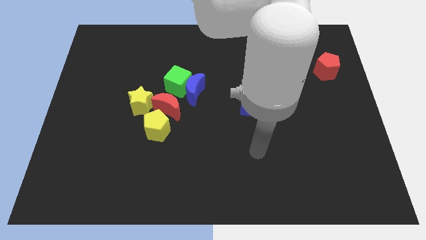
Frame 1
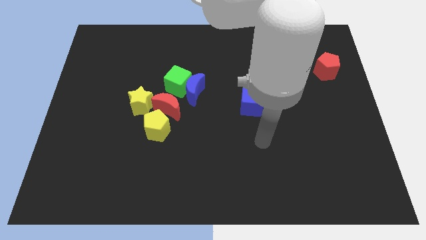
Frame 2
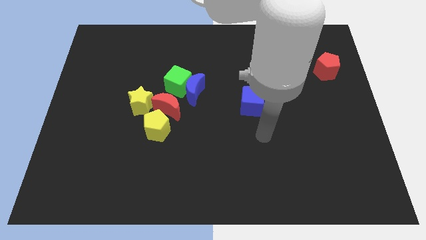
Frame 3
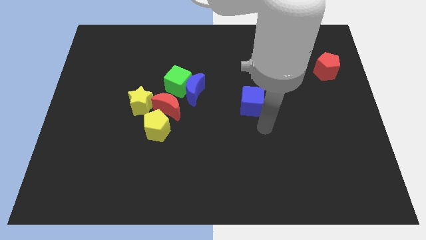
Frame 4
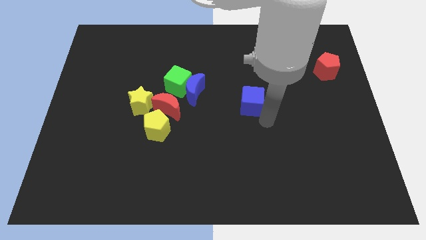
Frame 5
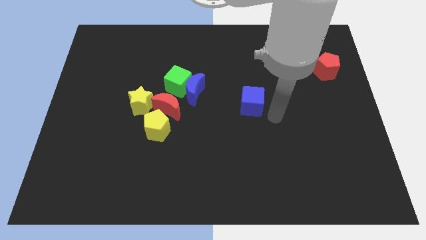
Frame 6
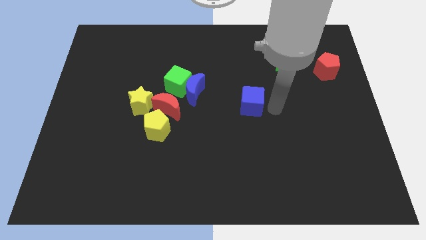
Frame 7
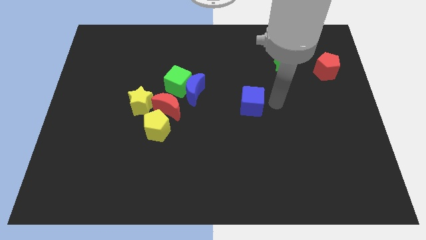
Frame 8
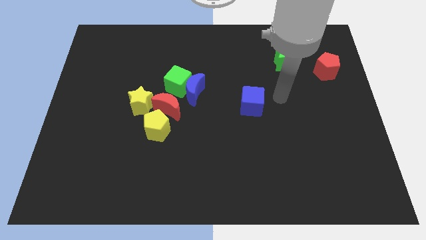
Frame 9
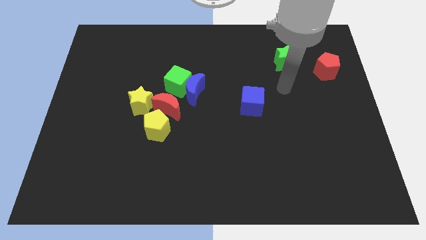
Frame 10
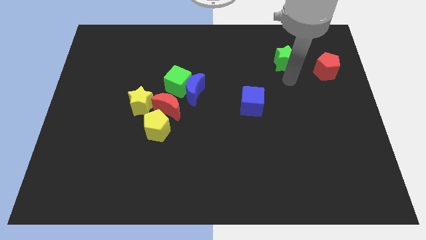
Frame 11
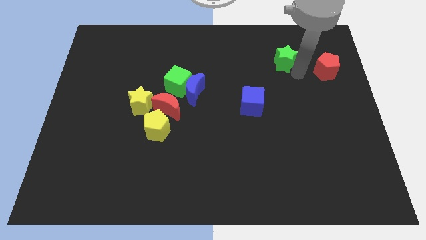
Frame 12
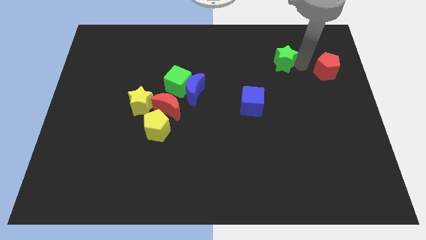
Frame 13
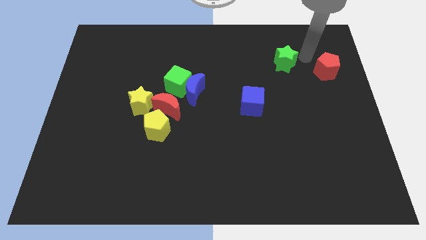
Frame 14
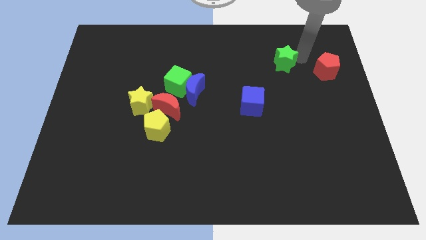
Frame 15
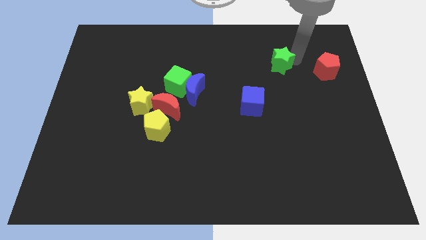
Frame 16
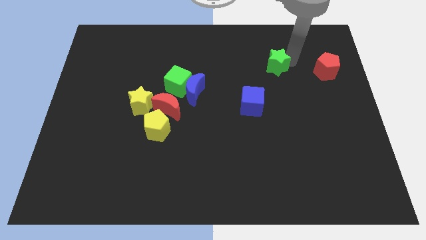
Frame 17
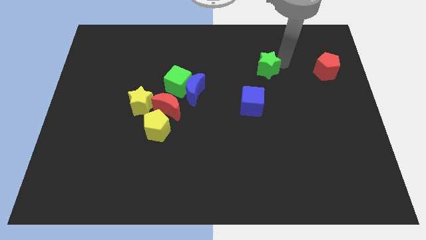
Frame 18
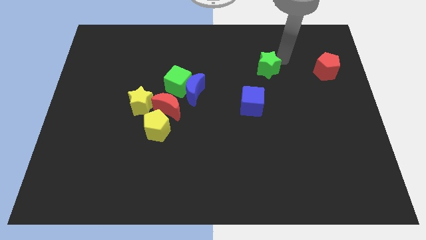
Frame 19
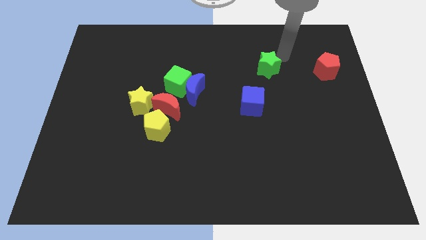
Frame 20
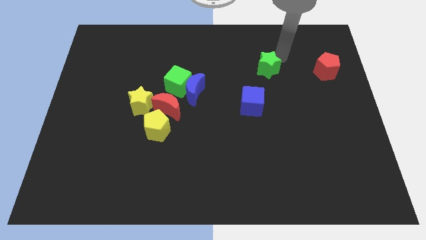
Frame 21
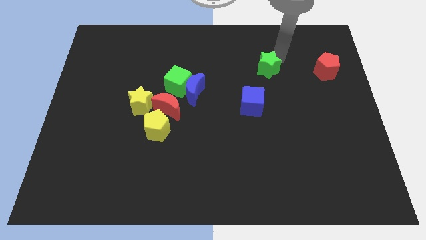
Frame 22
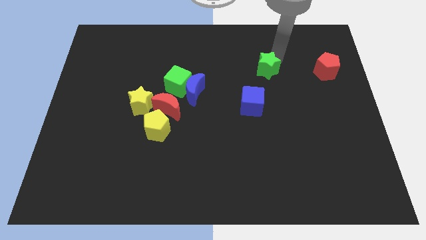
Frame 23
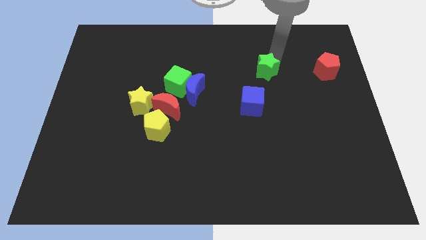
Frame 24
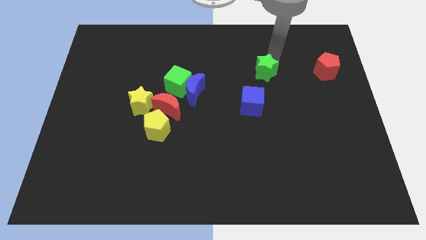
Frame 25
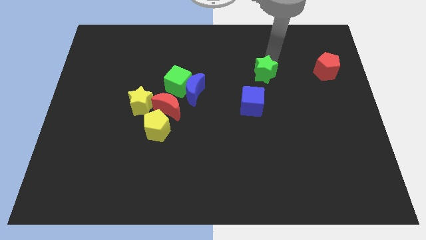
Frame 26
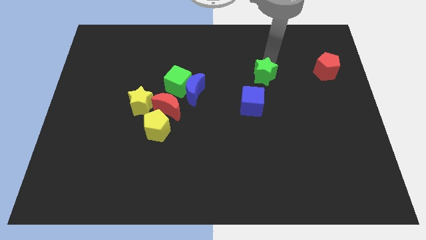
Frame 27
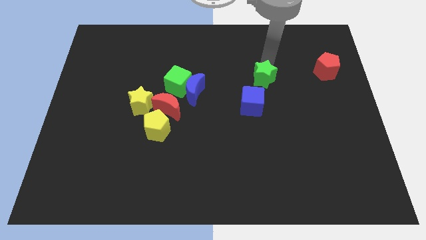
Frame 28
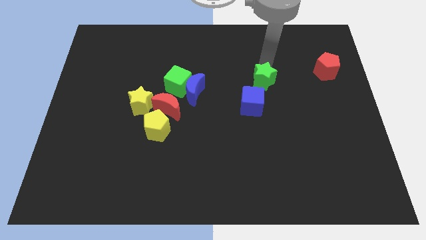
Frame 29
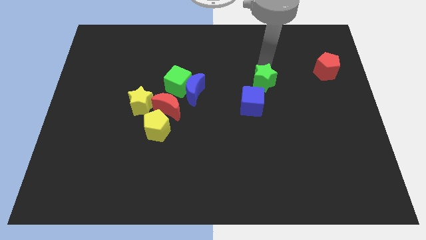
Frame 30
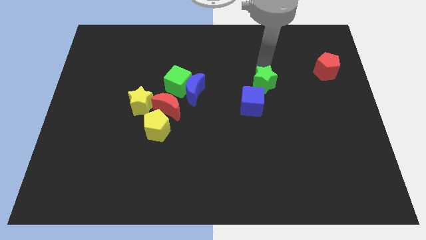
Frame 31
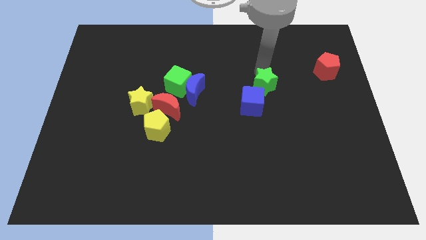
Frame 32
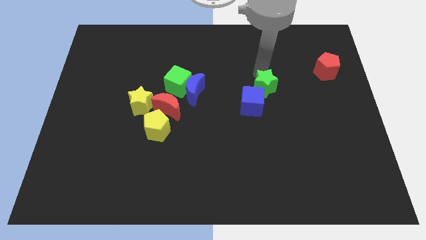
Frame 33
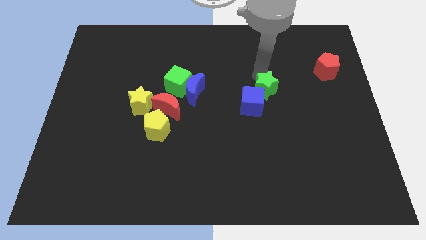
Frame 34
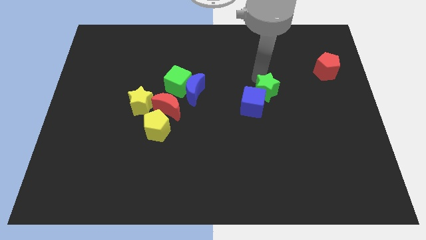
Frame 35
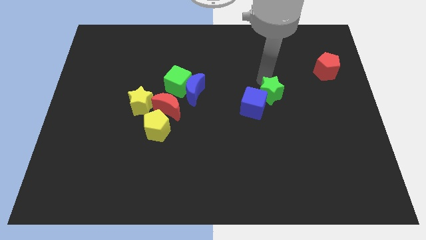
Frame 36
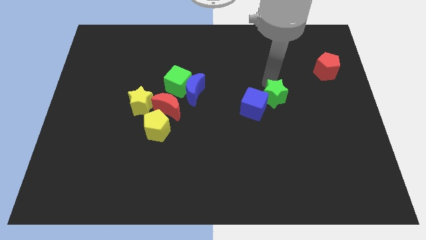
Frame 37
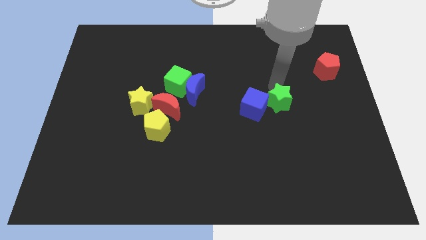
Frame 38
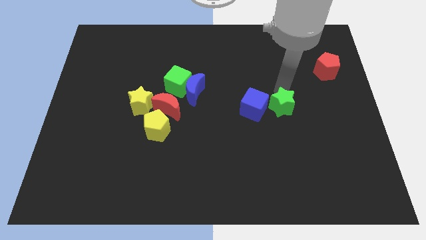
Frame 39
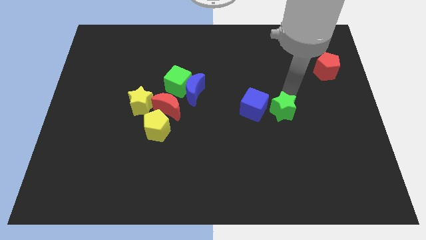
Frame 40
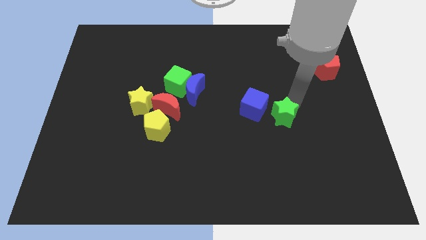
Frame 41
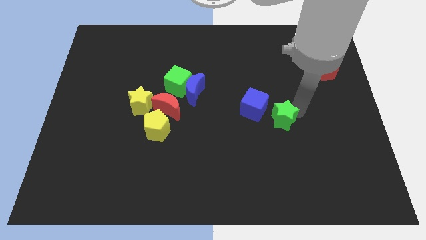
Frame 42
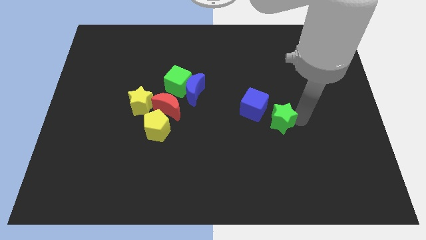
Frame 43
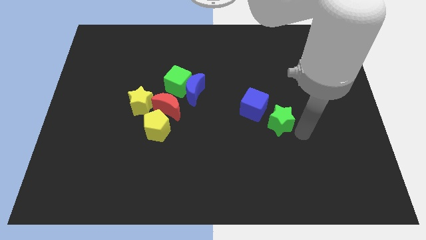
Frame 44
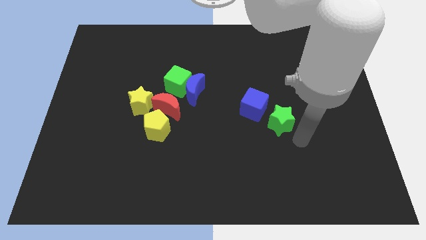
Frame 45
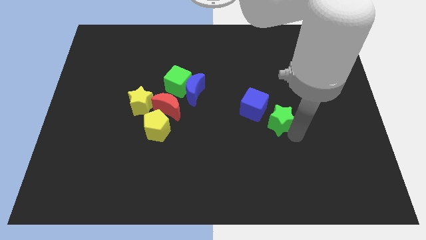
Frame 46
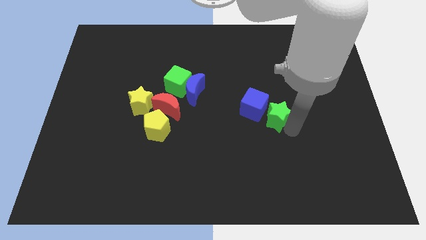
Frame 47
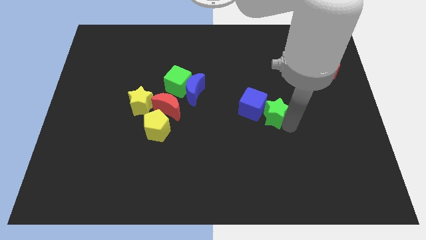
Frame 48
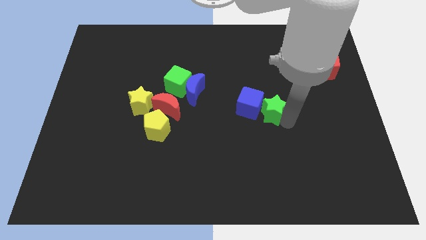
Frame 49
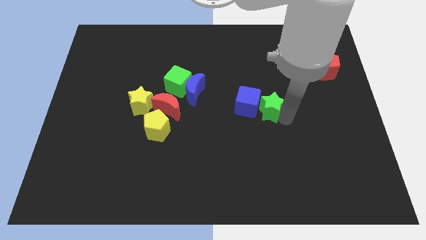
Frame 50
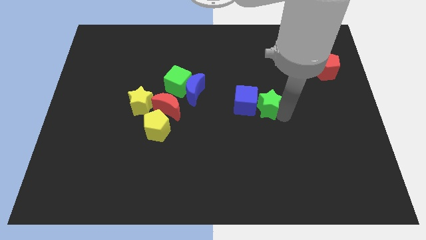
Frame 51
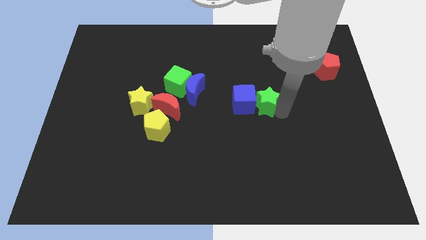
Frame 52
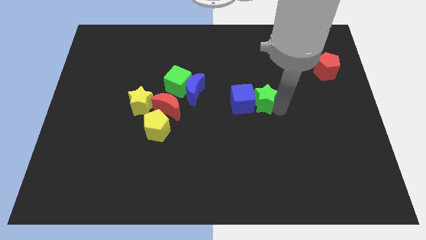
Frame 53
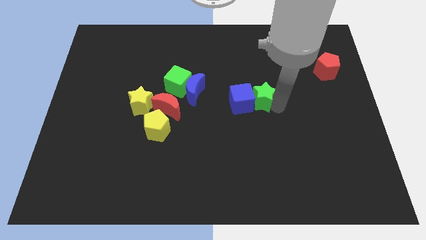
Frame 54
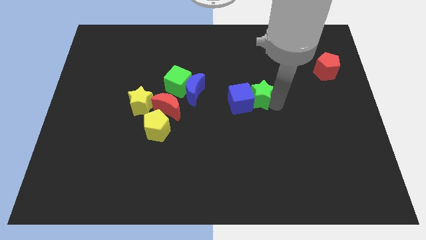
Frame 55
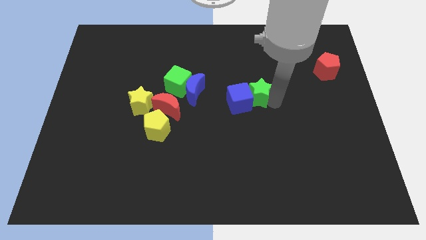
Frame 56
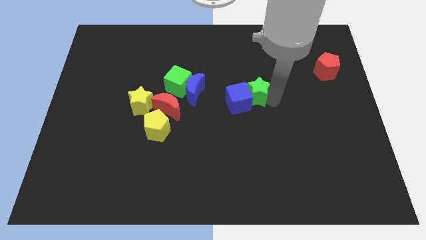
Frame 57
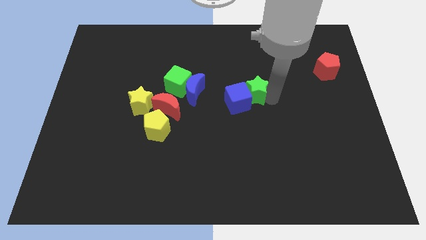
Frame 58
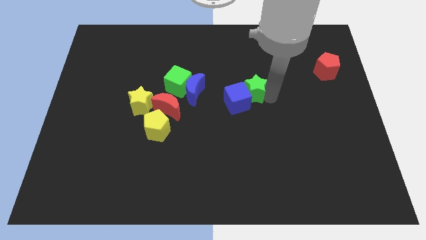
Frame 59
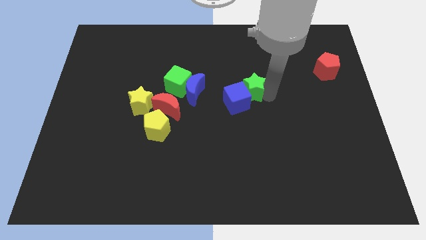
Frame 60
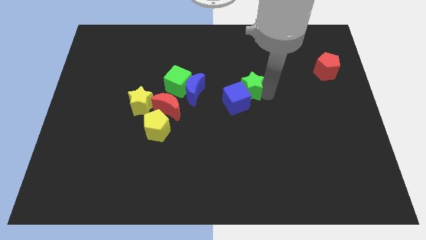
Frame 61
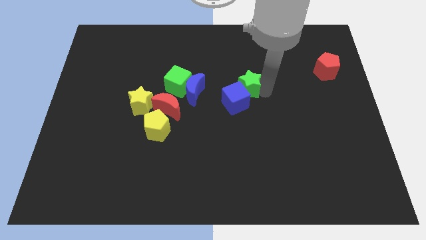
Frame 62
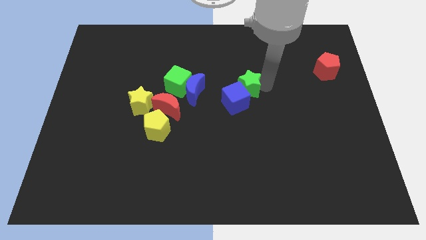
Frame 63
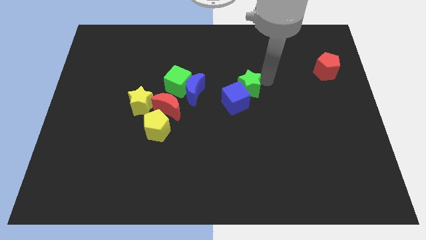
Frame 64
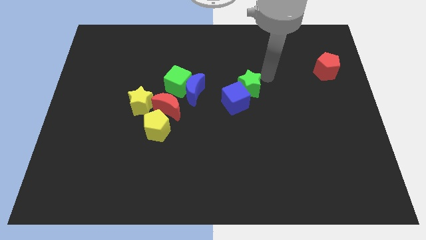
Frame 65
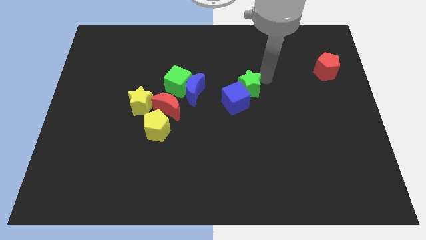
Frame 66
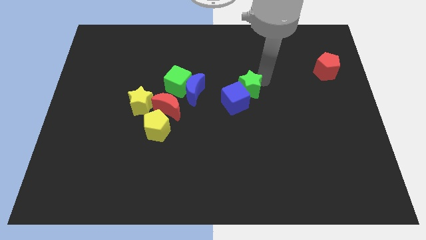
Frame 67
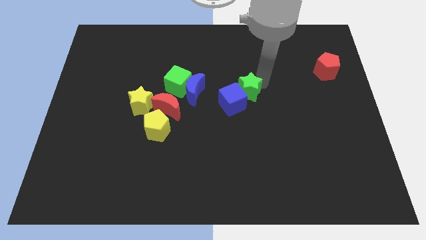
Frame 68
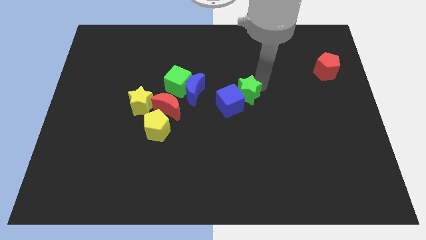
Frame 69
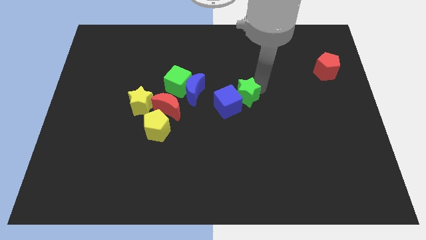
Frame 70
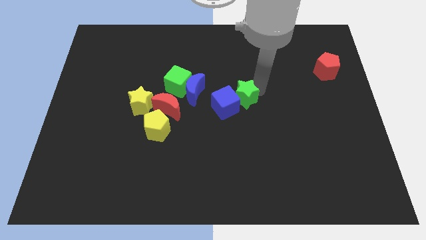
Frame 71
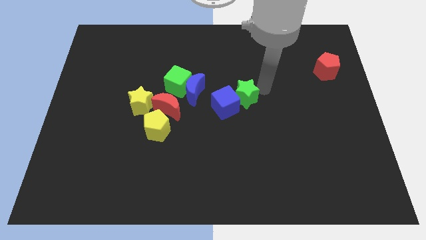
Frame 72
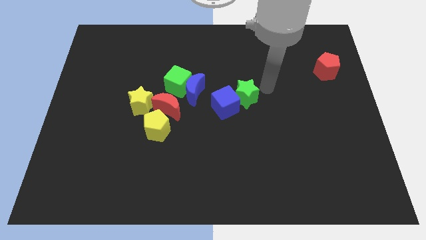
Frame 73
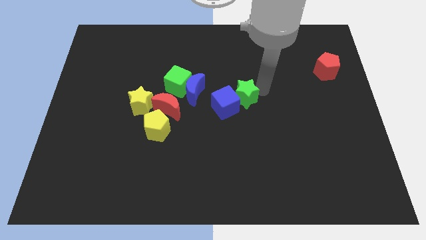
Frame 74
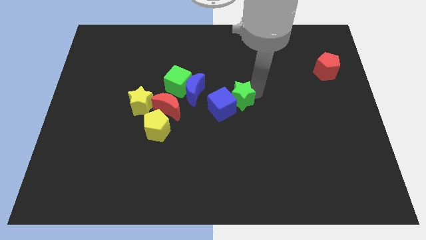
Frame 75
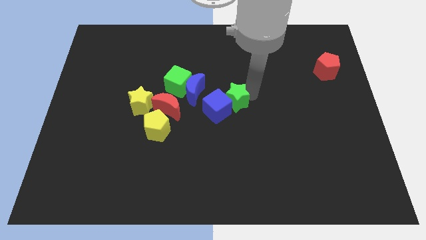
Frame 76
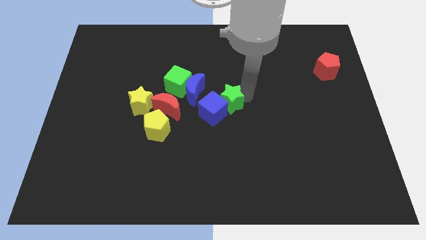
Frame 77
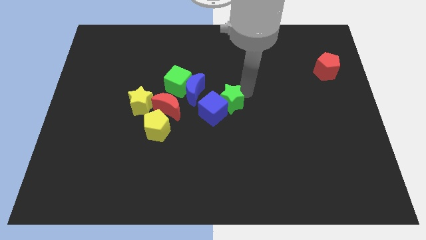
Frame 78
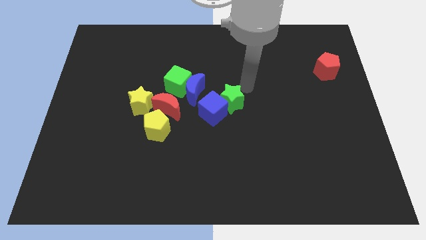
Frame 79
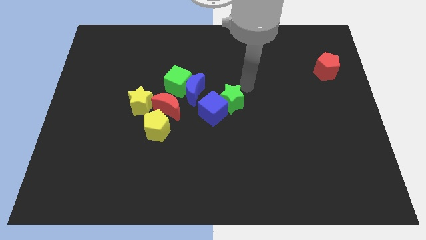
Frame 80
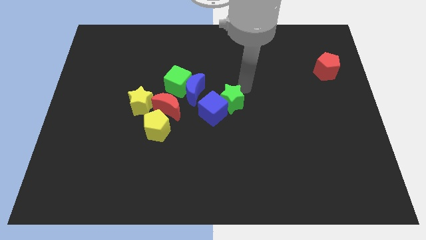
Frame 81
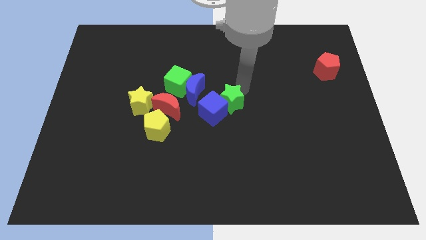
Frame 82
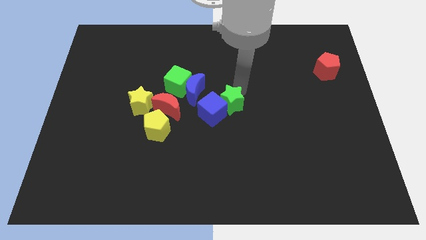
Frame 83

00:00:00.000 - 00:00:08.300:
slide the green star down and left diagonally
